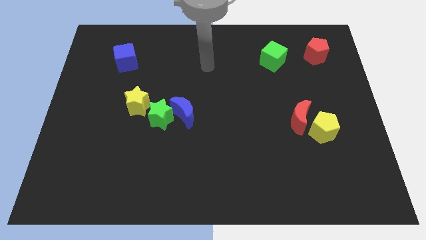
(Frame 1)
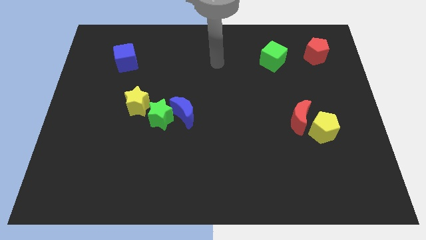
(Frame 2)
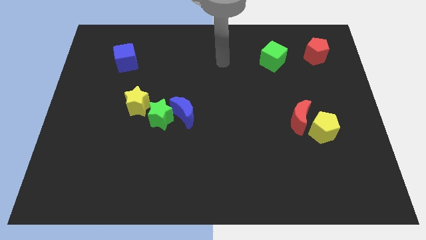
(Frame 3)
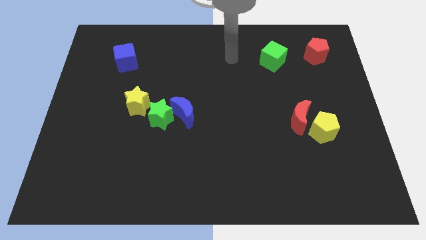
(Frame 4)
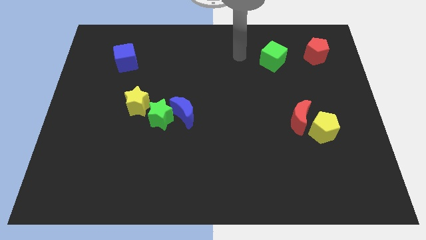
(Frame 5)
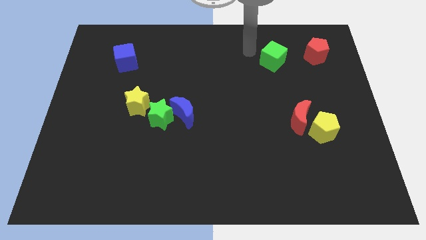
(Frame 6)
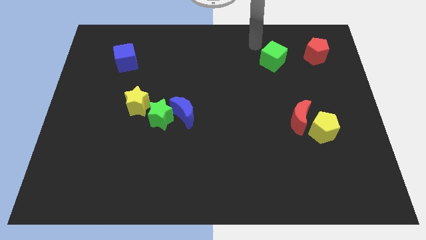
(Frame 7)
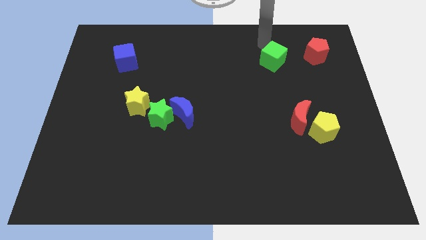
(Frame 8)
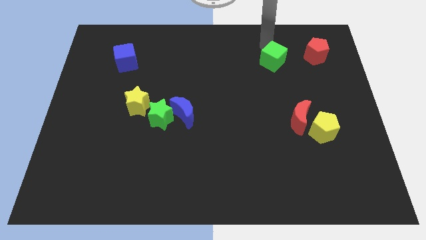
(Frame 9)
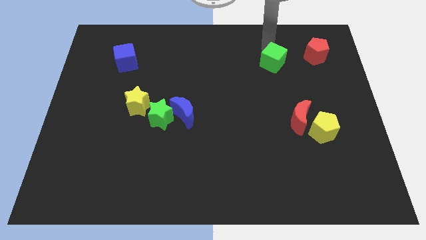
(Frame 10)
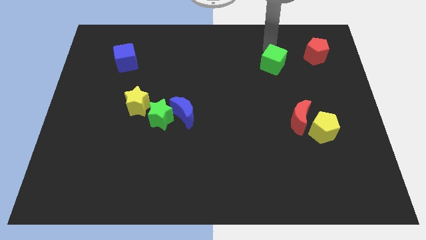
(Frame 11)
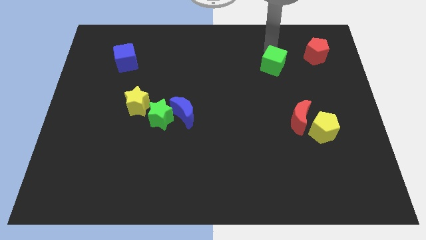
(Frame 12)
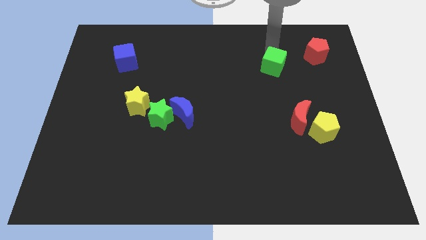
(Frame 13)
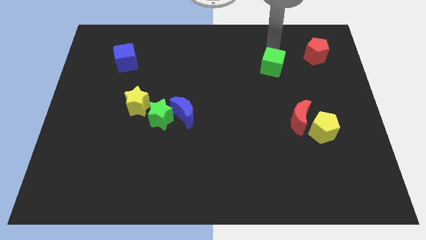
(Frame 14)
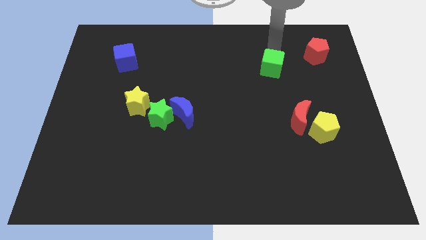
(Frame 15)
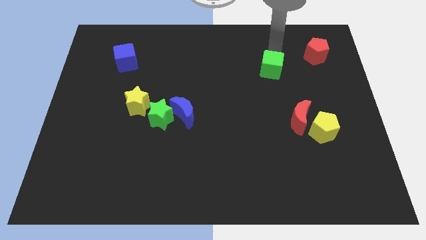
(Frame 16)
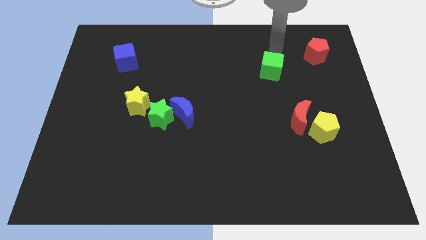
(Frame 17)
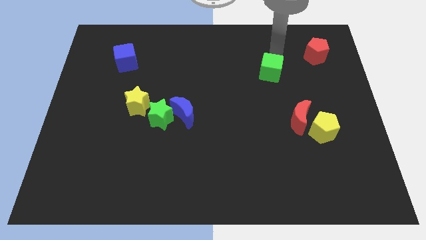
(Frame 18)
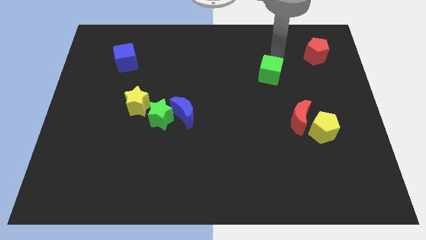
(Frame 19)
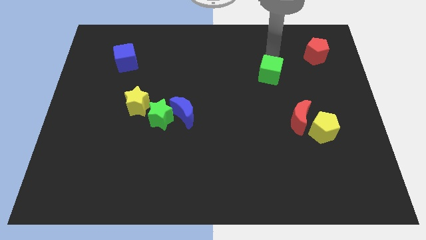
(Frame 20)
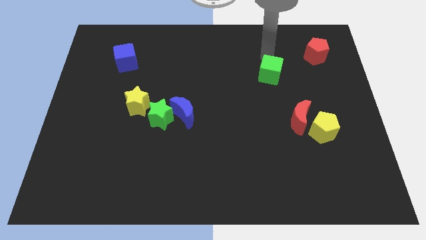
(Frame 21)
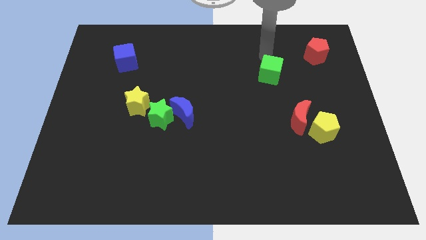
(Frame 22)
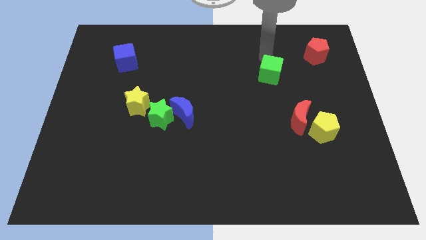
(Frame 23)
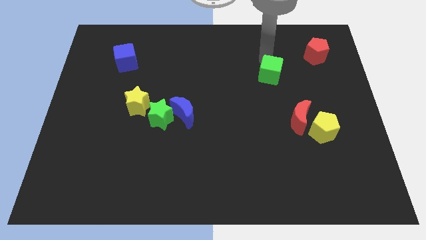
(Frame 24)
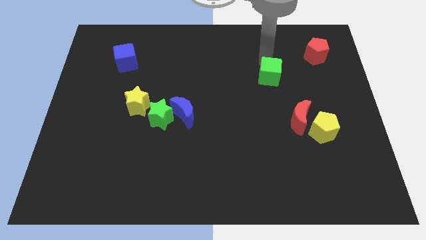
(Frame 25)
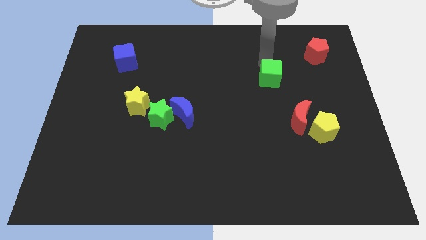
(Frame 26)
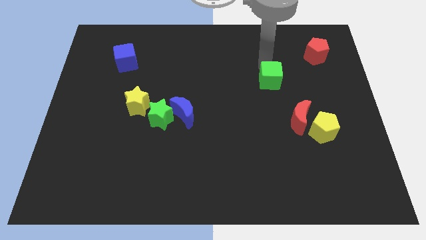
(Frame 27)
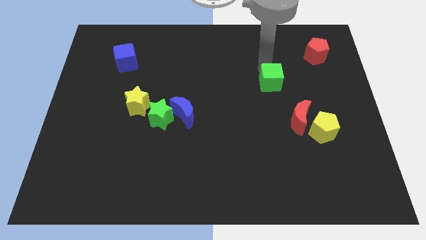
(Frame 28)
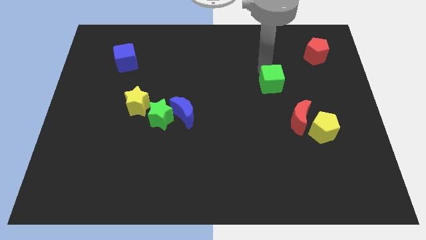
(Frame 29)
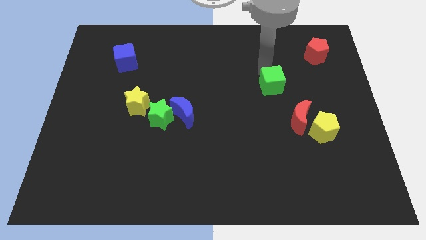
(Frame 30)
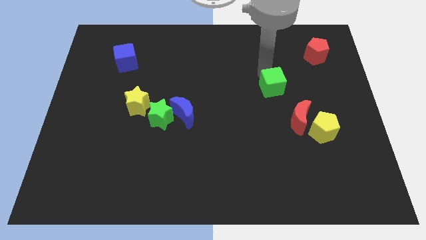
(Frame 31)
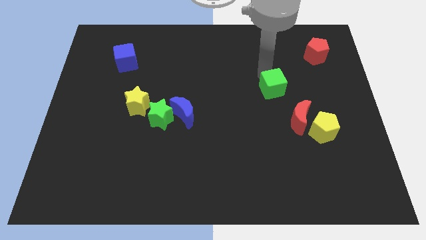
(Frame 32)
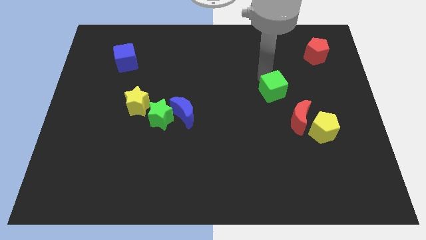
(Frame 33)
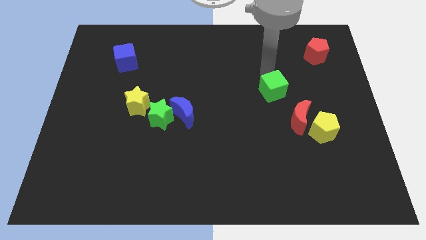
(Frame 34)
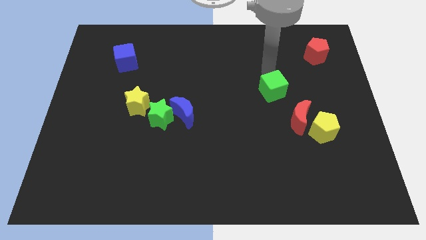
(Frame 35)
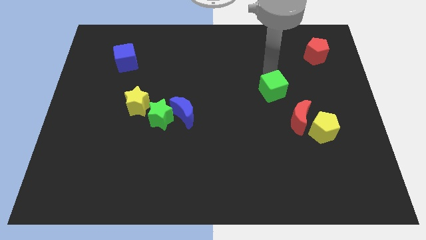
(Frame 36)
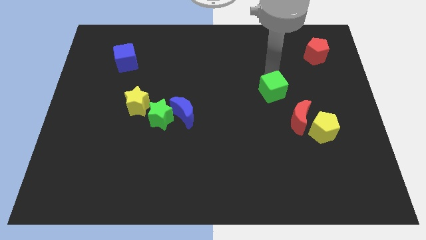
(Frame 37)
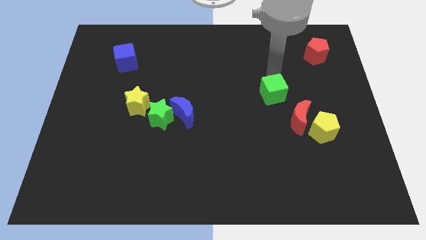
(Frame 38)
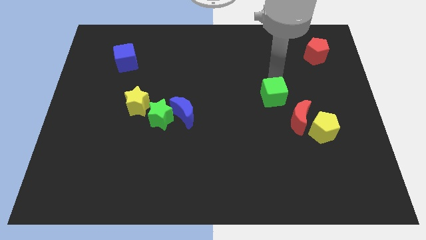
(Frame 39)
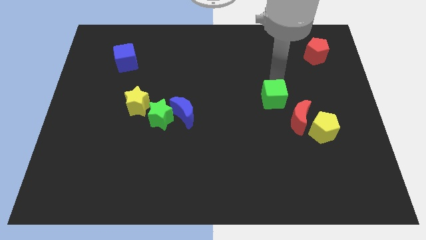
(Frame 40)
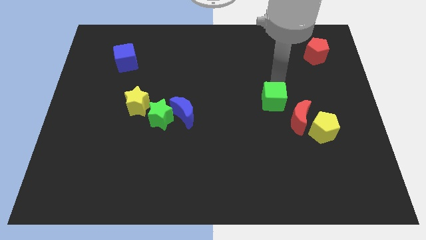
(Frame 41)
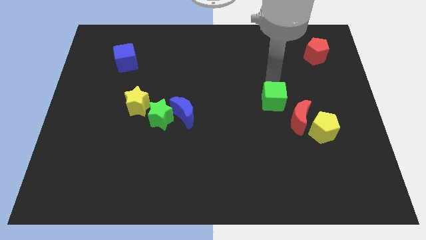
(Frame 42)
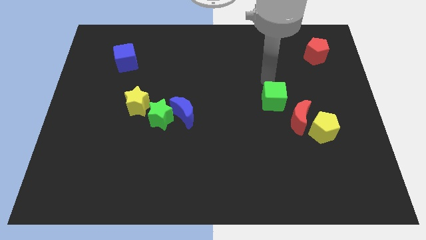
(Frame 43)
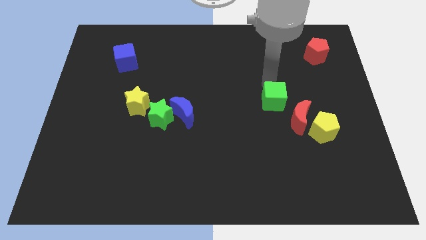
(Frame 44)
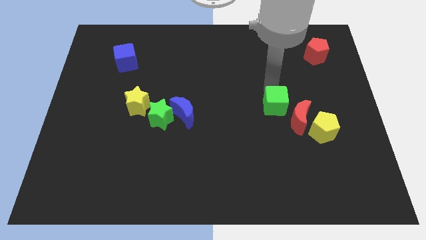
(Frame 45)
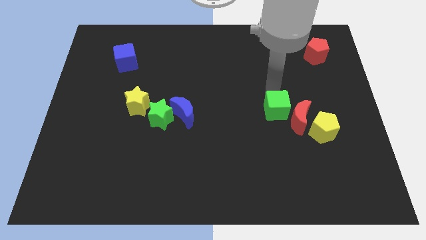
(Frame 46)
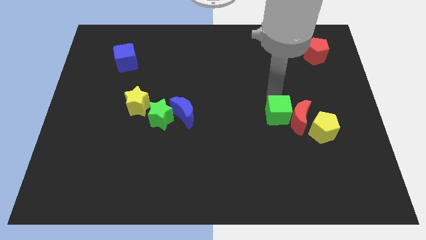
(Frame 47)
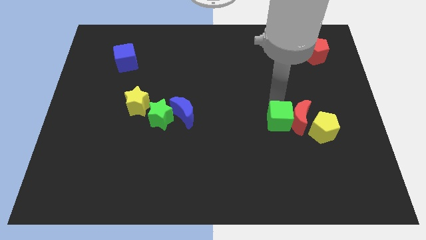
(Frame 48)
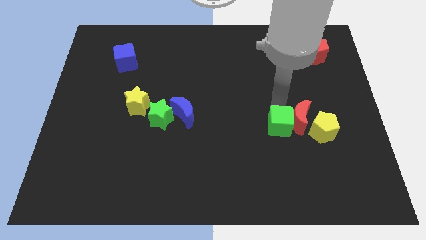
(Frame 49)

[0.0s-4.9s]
push the green cube downwards

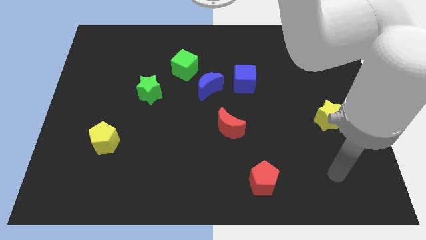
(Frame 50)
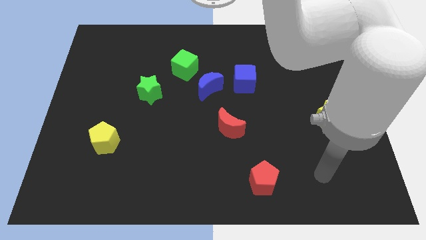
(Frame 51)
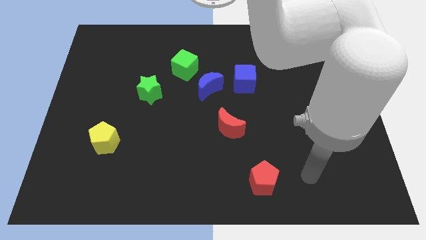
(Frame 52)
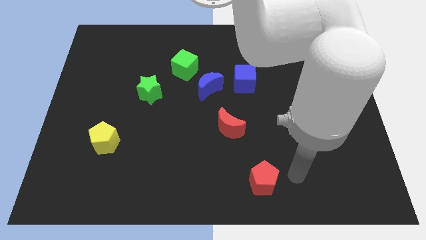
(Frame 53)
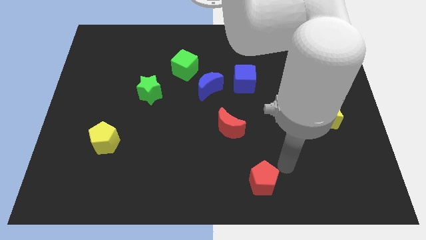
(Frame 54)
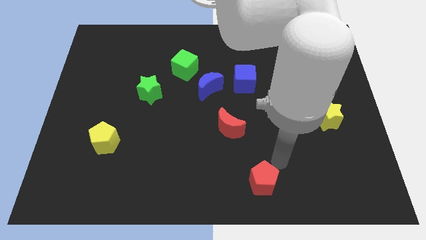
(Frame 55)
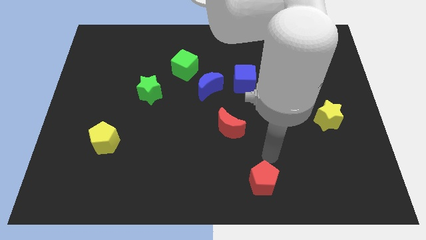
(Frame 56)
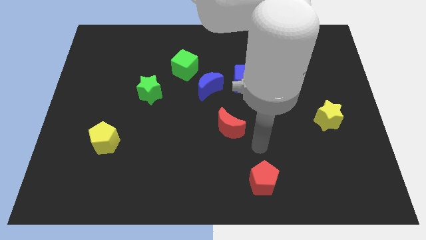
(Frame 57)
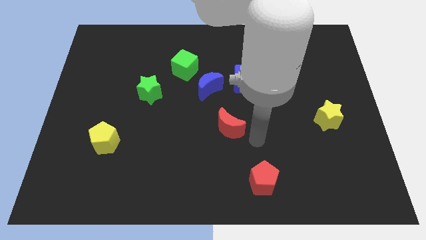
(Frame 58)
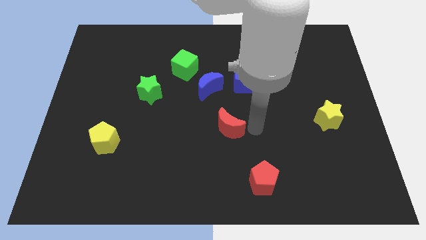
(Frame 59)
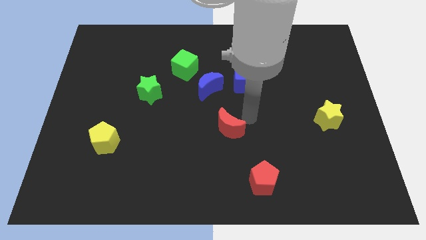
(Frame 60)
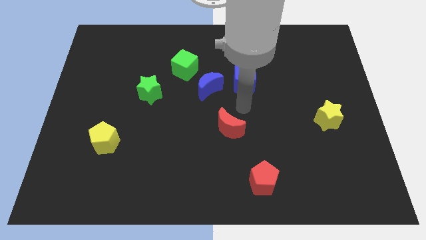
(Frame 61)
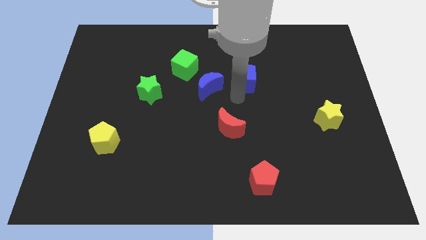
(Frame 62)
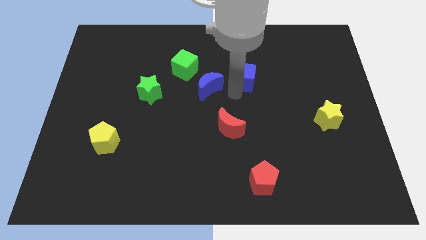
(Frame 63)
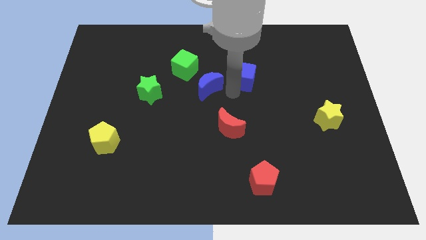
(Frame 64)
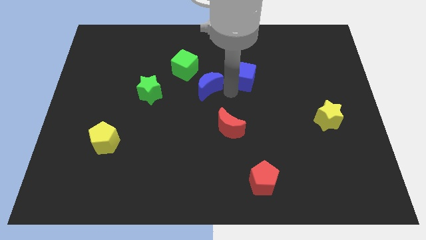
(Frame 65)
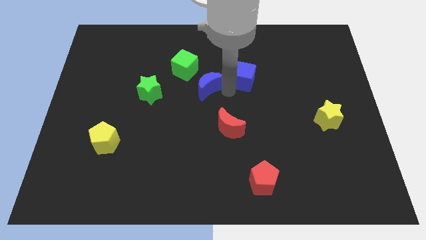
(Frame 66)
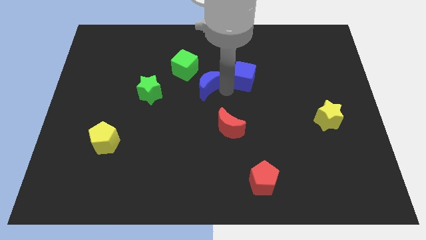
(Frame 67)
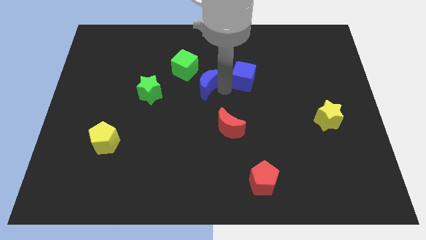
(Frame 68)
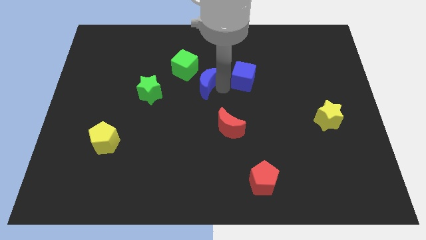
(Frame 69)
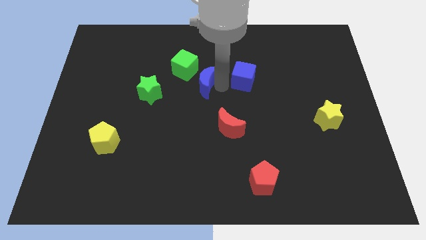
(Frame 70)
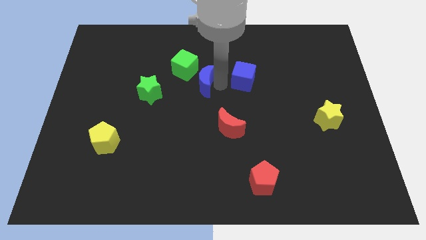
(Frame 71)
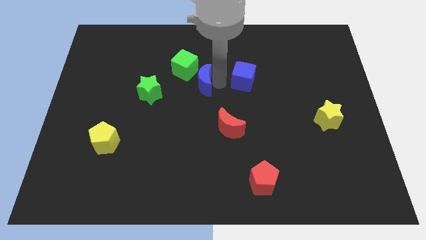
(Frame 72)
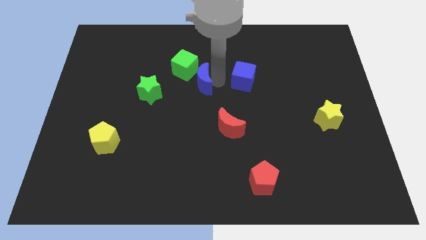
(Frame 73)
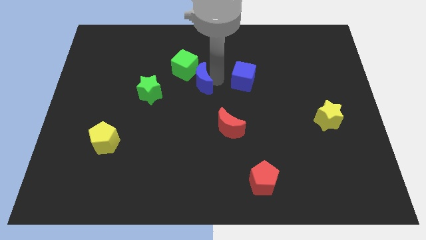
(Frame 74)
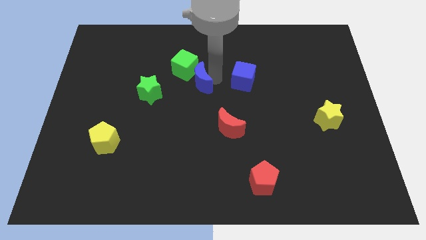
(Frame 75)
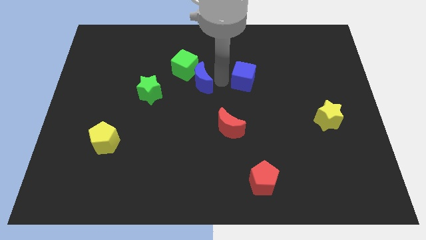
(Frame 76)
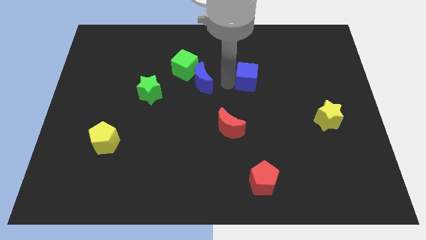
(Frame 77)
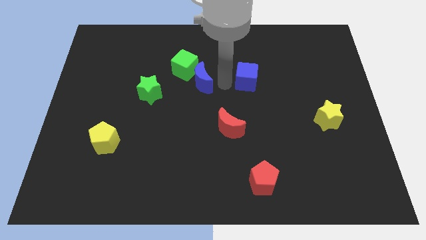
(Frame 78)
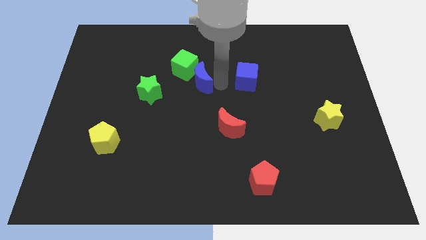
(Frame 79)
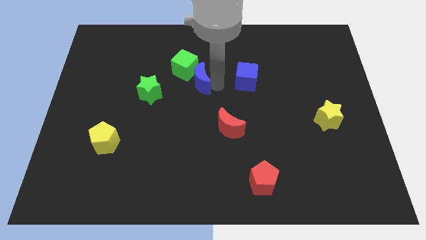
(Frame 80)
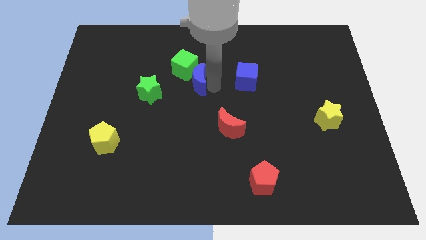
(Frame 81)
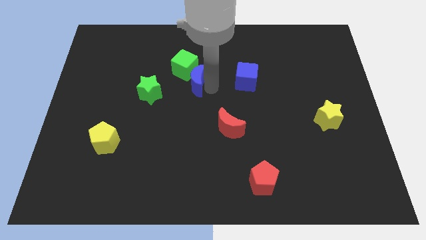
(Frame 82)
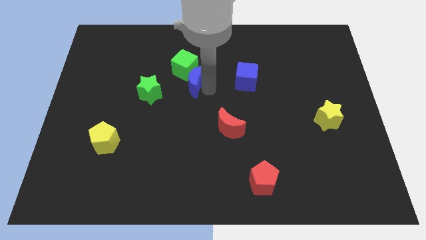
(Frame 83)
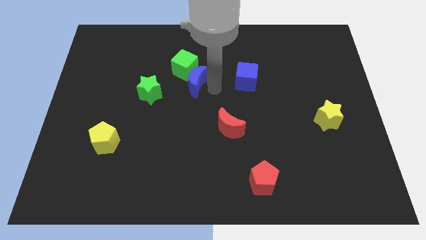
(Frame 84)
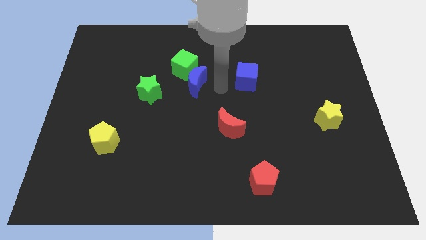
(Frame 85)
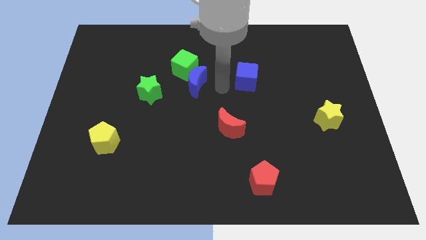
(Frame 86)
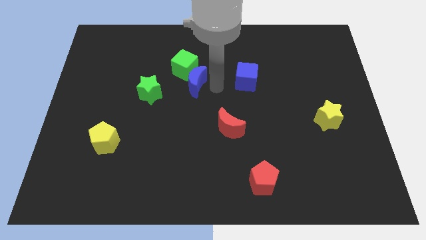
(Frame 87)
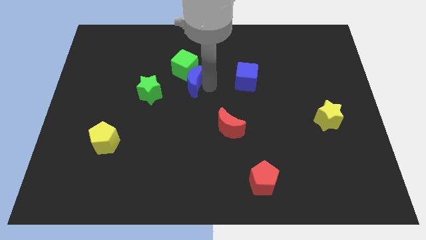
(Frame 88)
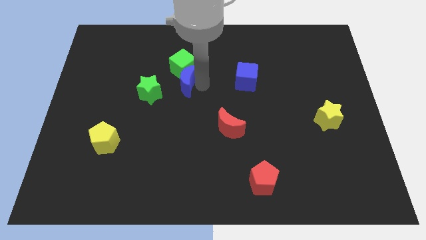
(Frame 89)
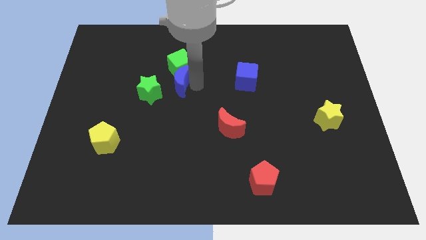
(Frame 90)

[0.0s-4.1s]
slide the blue moon a little bit left
